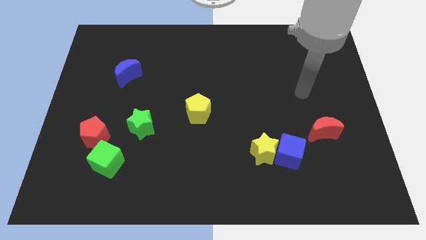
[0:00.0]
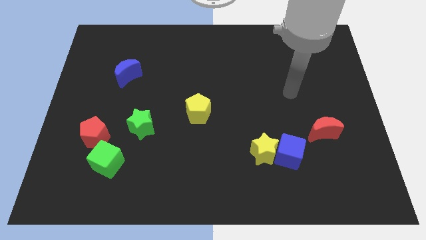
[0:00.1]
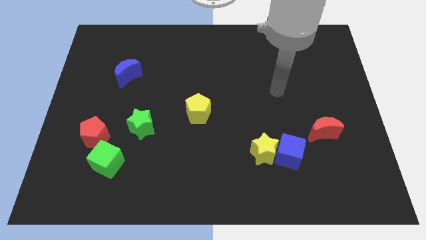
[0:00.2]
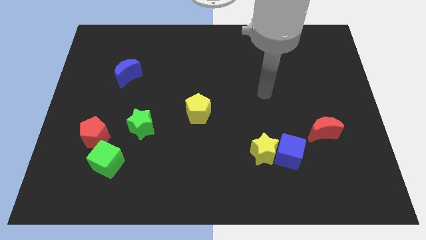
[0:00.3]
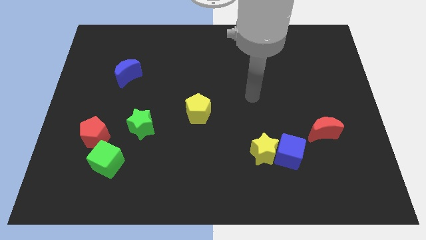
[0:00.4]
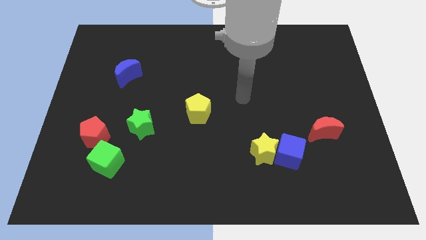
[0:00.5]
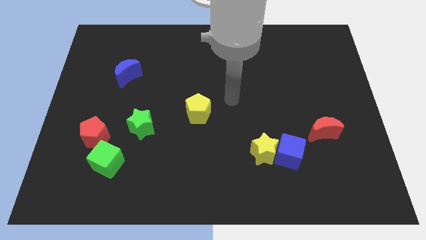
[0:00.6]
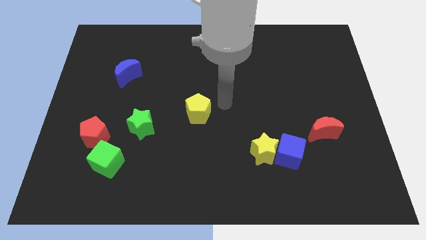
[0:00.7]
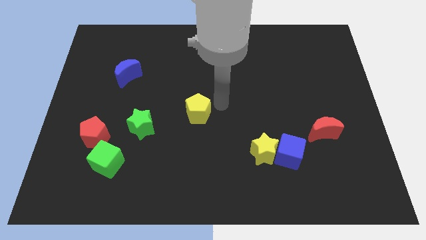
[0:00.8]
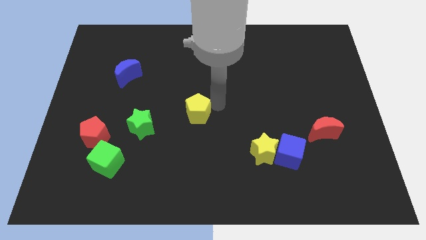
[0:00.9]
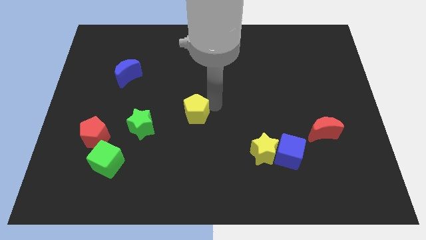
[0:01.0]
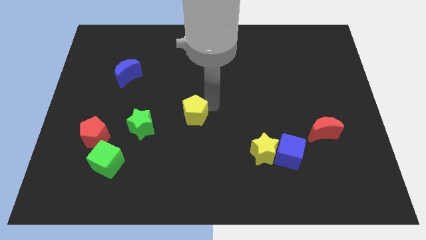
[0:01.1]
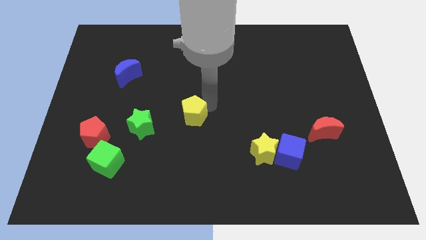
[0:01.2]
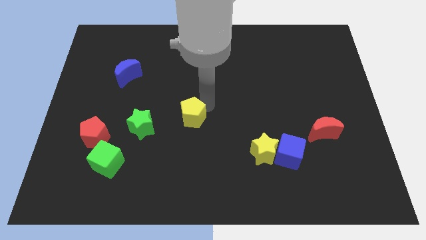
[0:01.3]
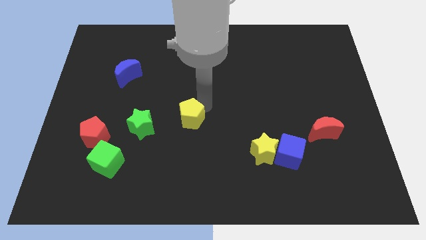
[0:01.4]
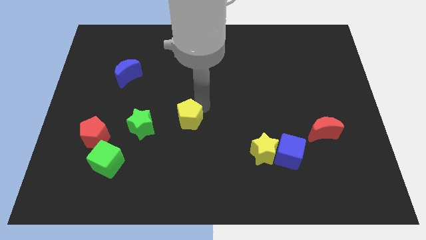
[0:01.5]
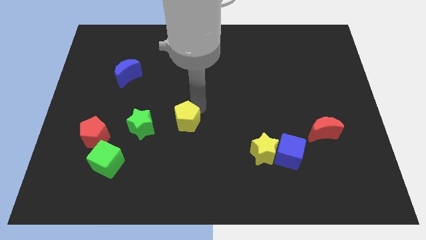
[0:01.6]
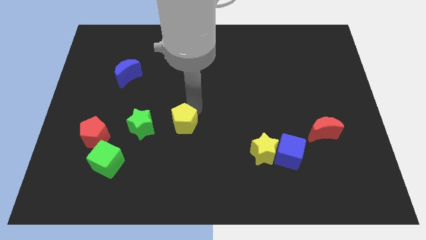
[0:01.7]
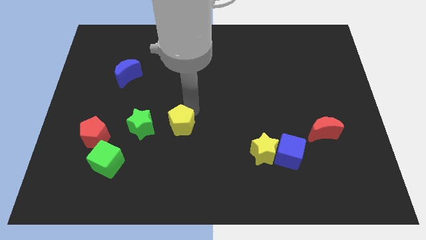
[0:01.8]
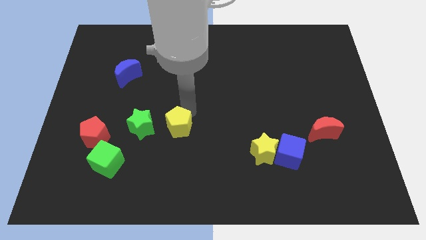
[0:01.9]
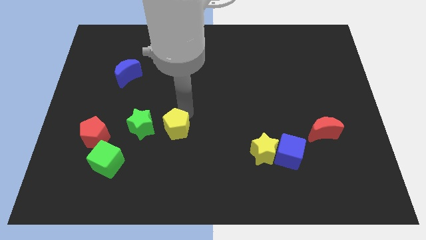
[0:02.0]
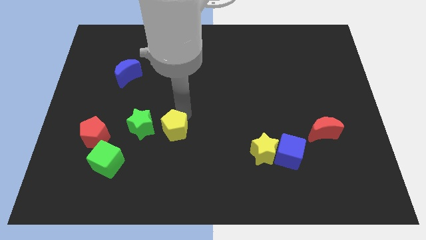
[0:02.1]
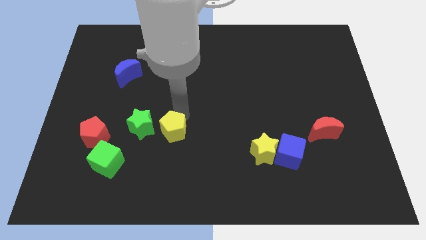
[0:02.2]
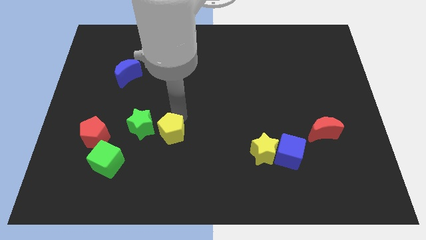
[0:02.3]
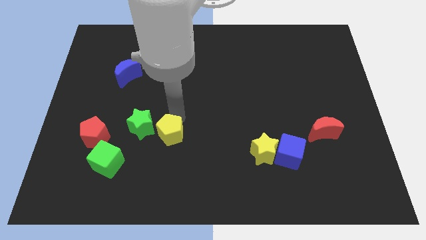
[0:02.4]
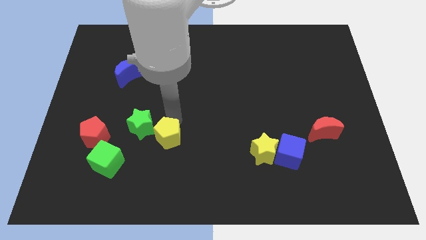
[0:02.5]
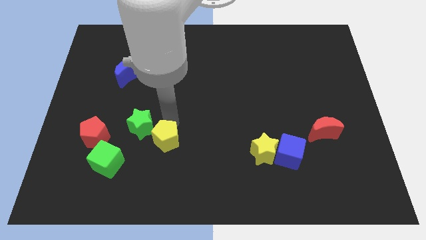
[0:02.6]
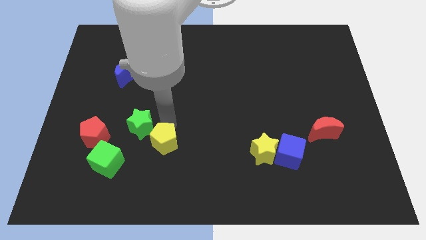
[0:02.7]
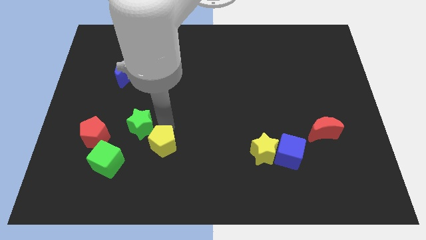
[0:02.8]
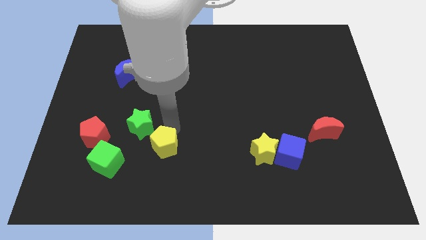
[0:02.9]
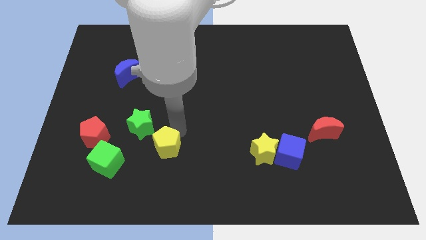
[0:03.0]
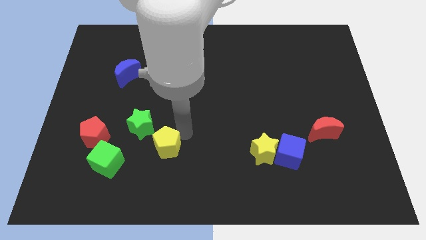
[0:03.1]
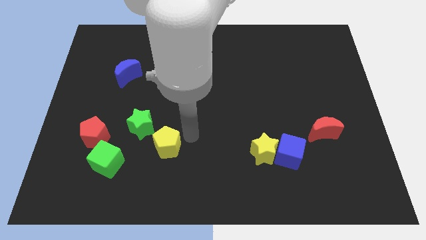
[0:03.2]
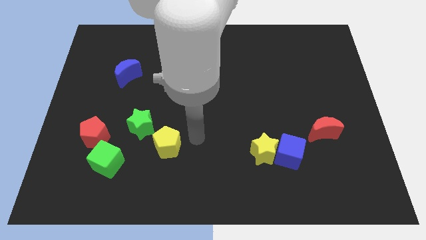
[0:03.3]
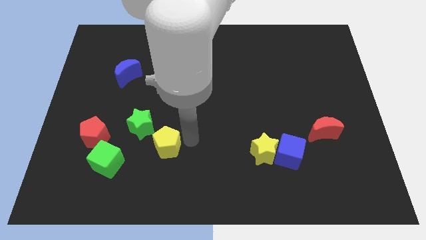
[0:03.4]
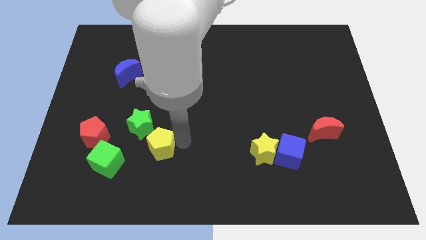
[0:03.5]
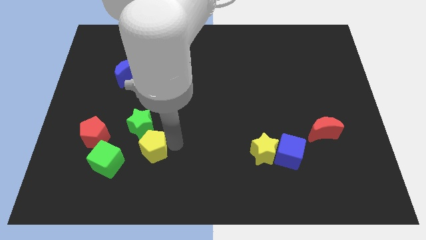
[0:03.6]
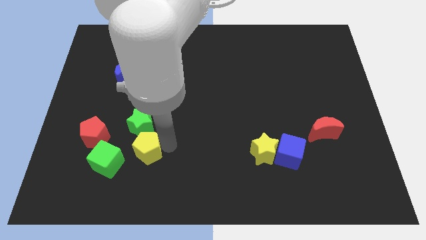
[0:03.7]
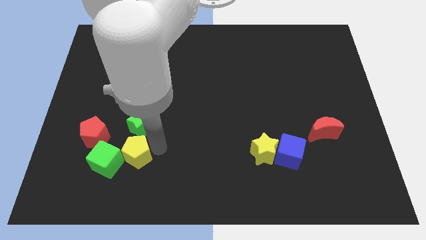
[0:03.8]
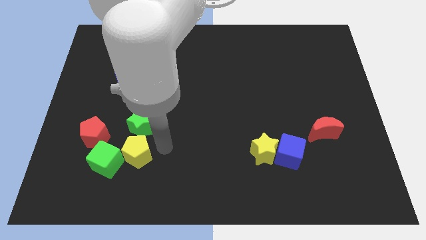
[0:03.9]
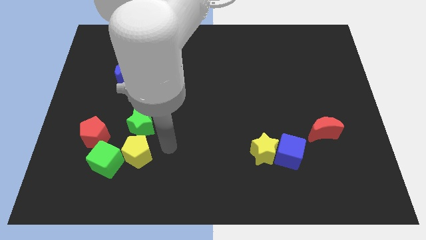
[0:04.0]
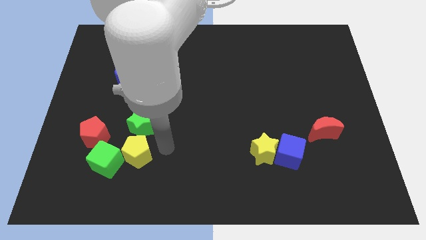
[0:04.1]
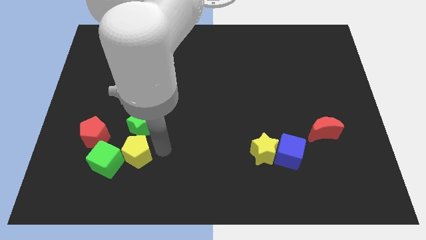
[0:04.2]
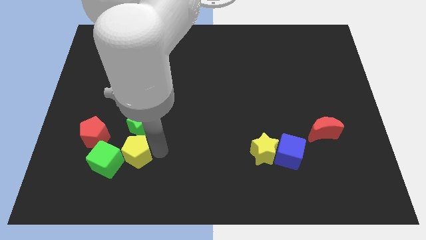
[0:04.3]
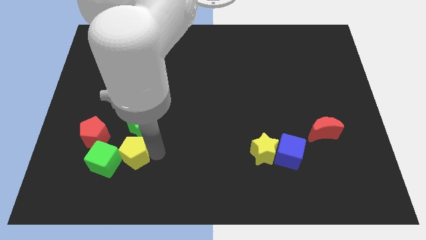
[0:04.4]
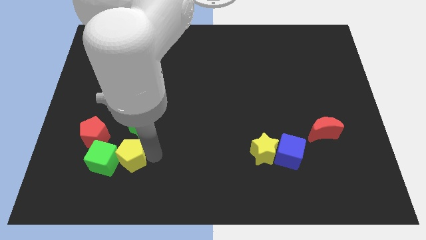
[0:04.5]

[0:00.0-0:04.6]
move the yellow pentagon next to the green cube

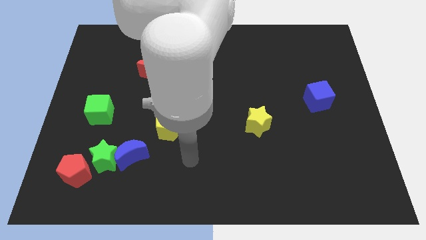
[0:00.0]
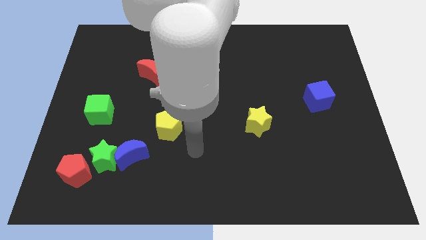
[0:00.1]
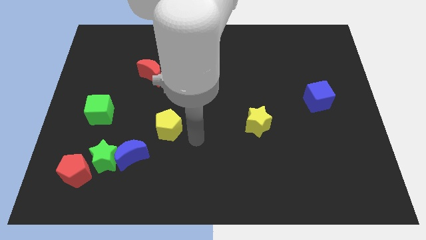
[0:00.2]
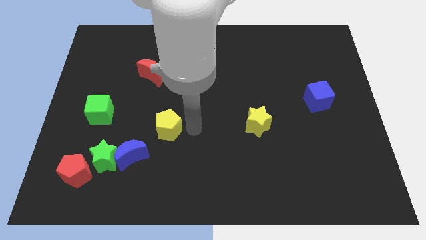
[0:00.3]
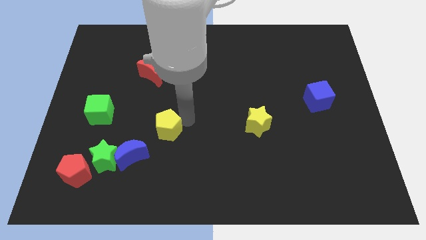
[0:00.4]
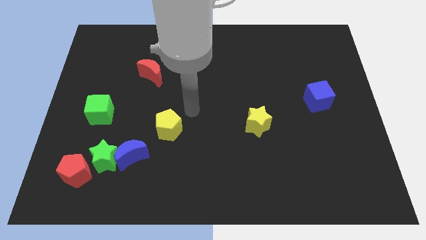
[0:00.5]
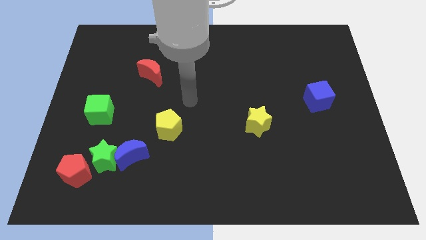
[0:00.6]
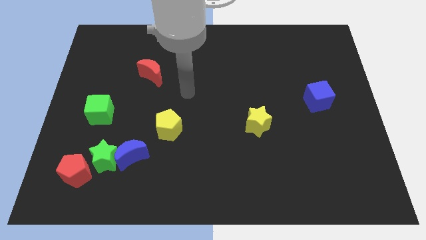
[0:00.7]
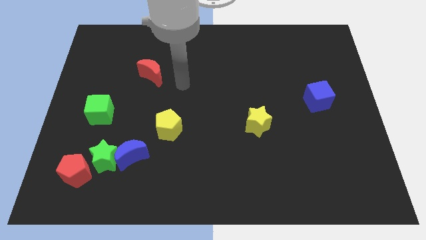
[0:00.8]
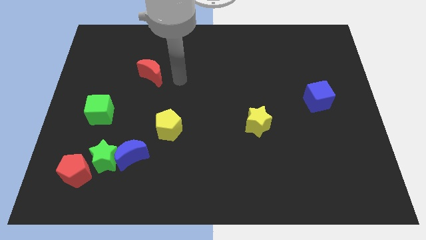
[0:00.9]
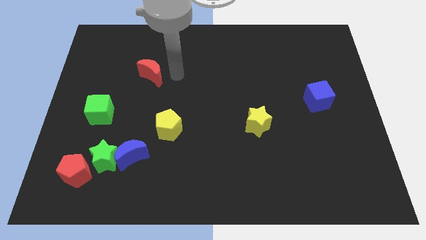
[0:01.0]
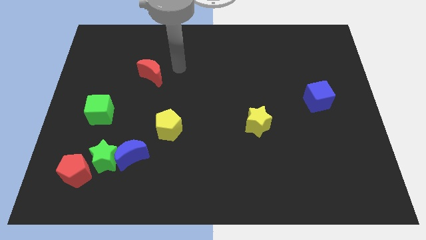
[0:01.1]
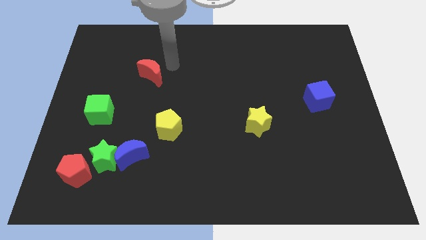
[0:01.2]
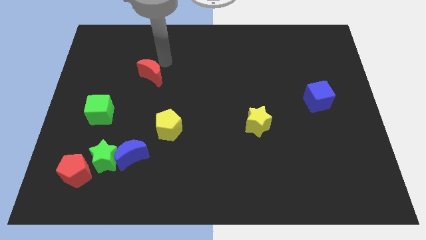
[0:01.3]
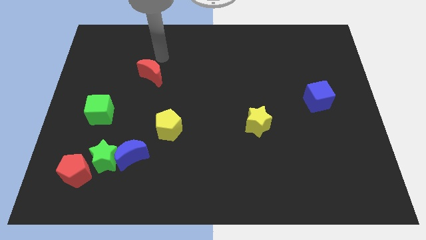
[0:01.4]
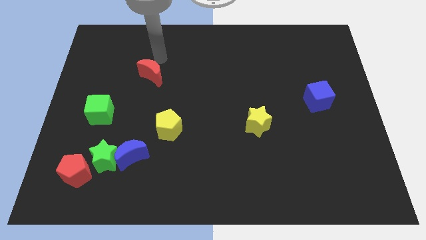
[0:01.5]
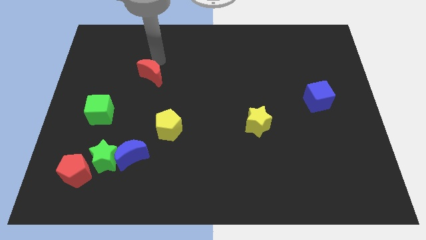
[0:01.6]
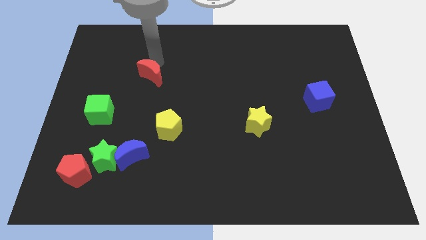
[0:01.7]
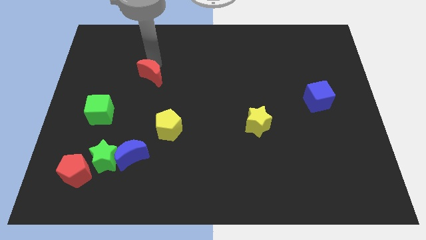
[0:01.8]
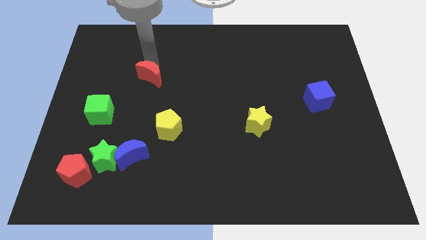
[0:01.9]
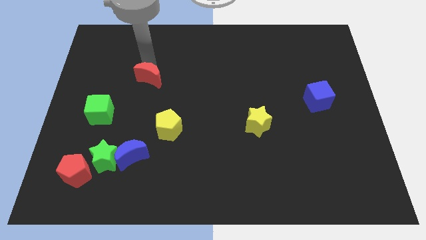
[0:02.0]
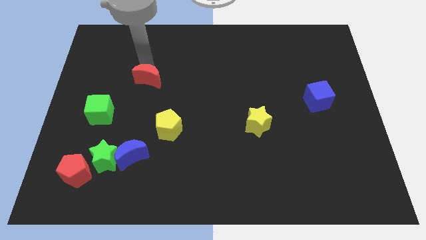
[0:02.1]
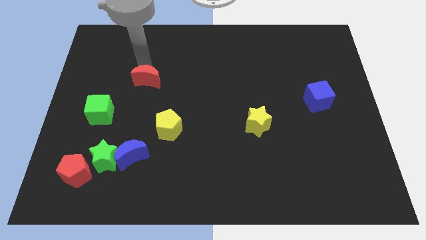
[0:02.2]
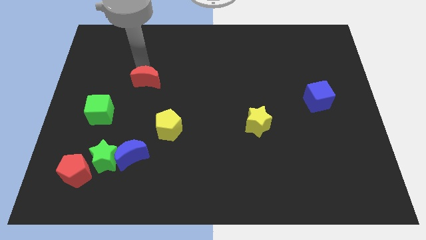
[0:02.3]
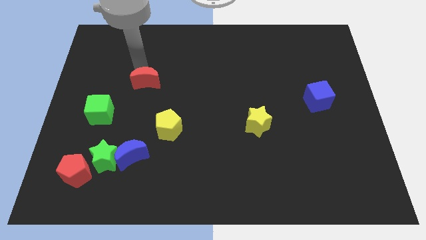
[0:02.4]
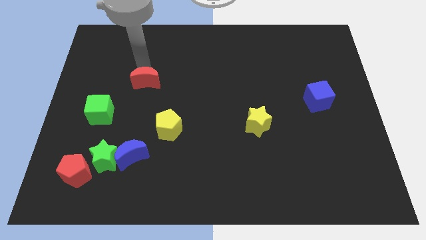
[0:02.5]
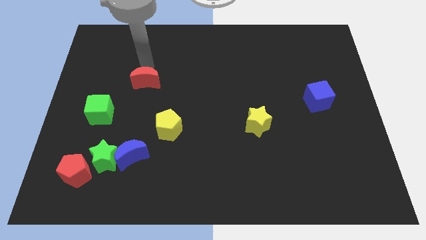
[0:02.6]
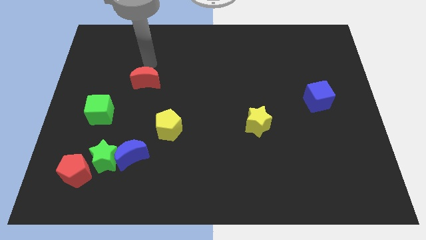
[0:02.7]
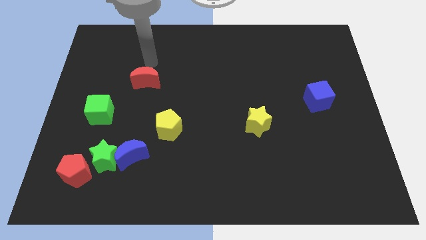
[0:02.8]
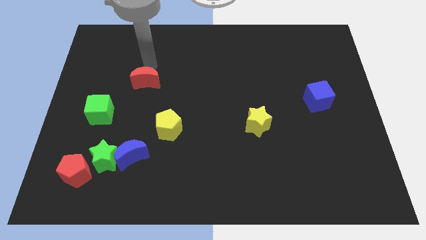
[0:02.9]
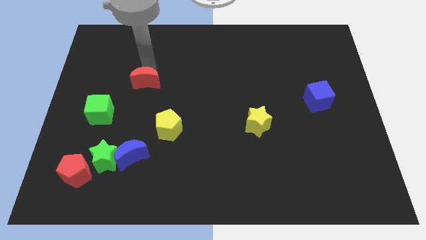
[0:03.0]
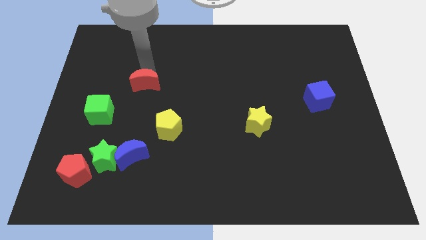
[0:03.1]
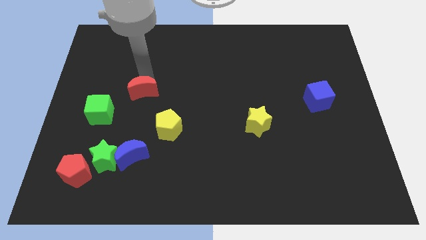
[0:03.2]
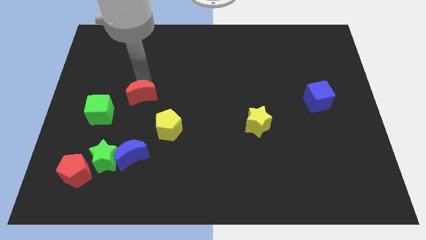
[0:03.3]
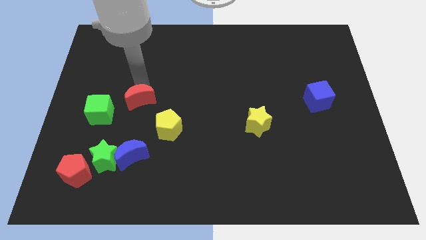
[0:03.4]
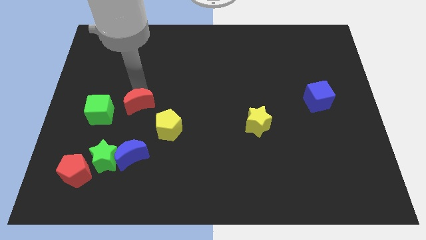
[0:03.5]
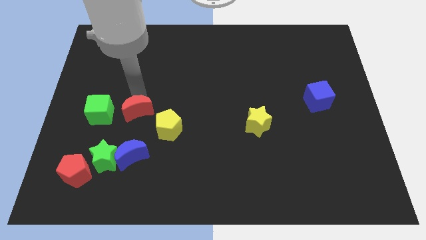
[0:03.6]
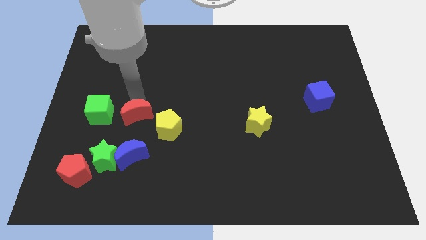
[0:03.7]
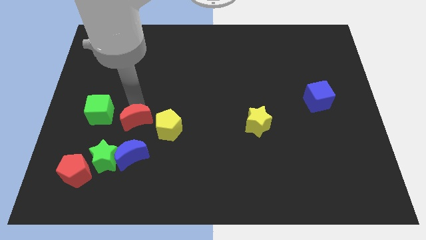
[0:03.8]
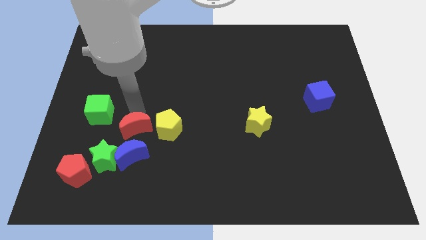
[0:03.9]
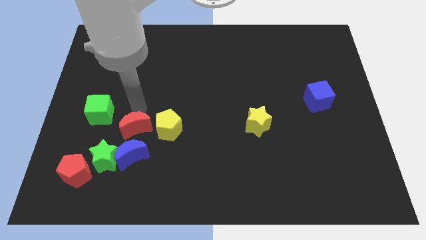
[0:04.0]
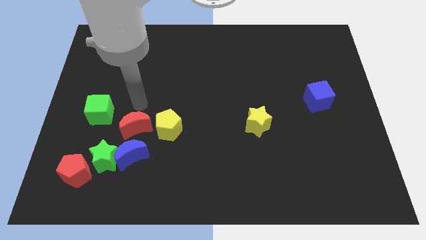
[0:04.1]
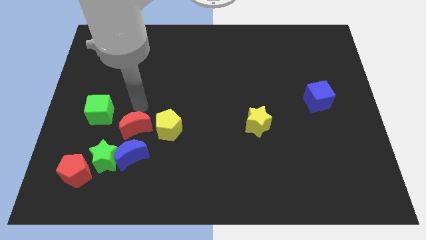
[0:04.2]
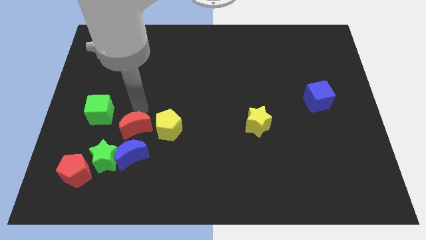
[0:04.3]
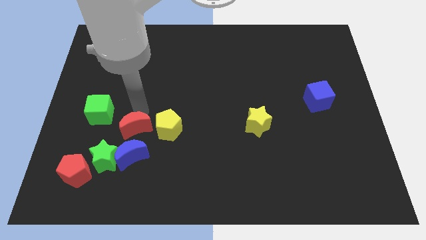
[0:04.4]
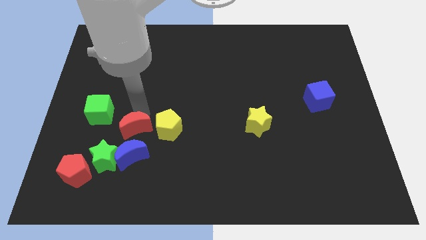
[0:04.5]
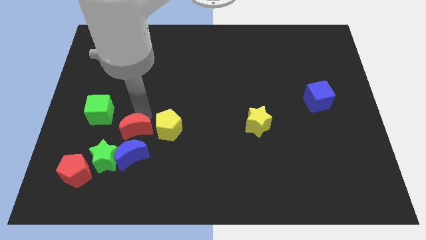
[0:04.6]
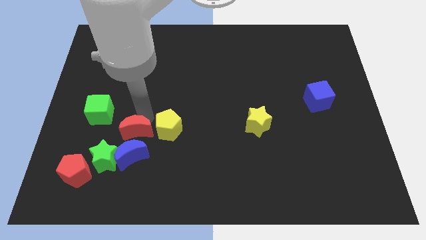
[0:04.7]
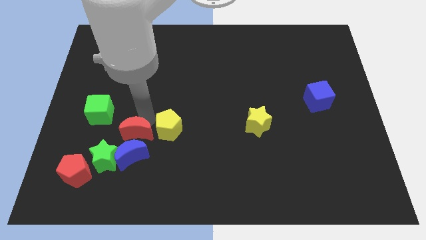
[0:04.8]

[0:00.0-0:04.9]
move the red moon next to the blue moon
